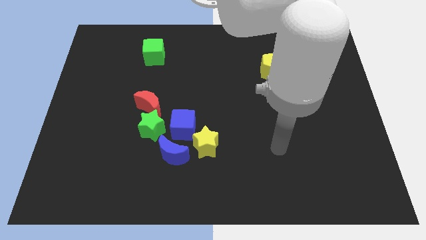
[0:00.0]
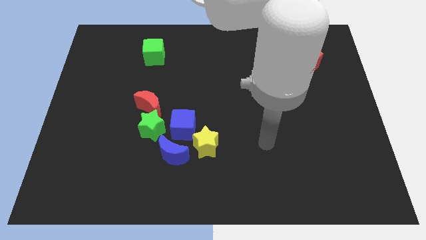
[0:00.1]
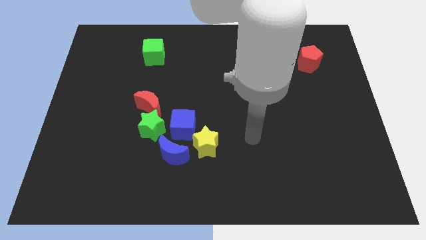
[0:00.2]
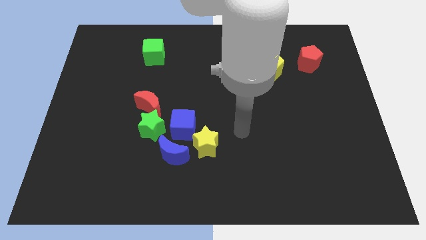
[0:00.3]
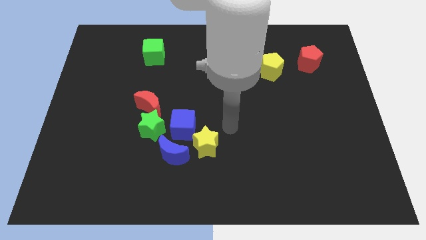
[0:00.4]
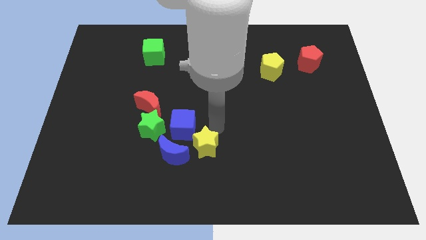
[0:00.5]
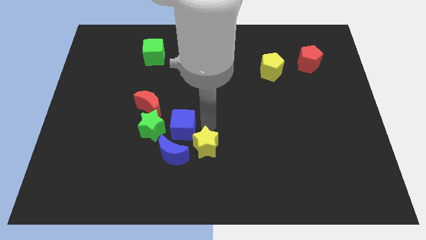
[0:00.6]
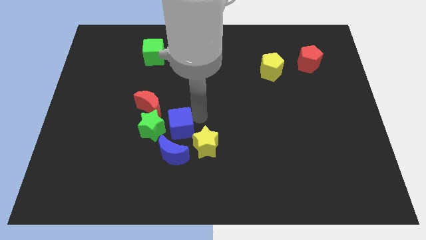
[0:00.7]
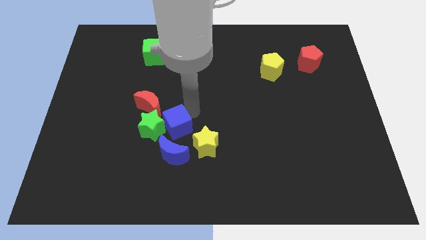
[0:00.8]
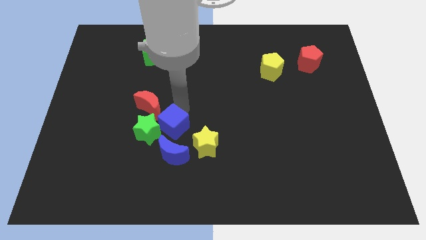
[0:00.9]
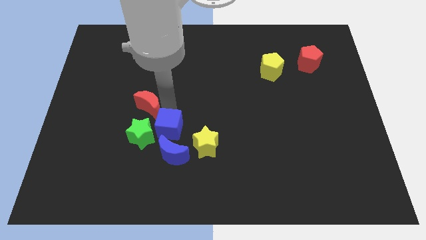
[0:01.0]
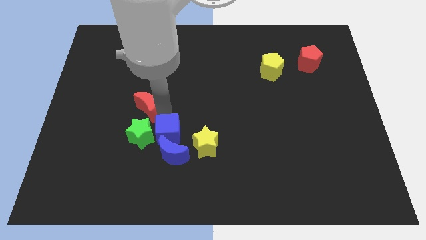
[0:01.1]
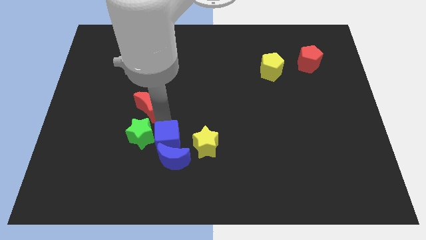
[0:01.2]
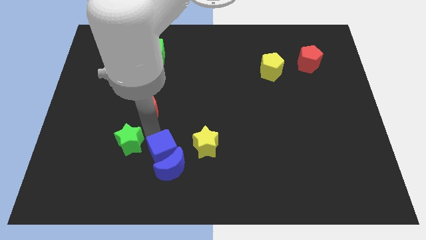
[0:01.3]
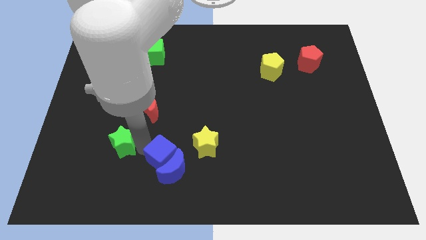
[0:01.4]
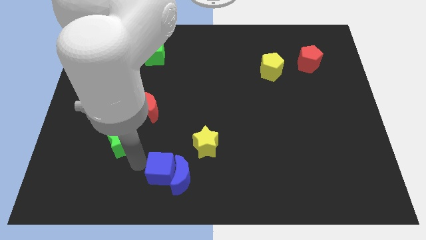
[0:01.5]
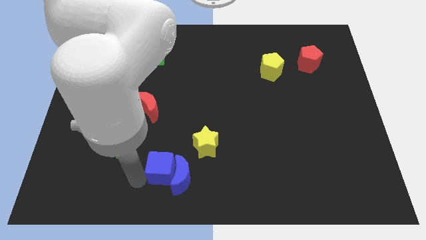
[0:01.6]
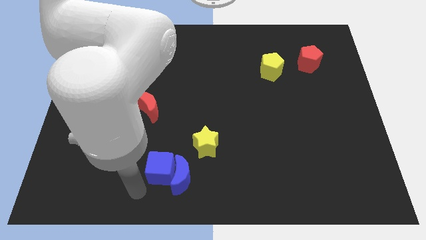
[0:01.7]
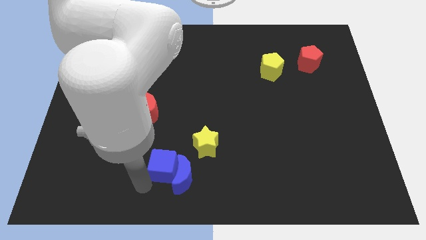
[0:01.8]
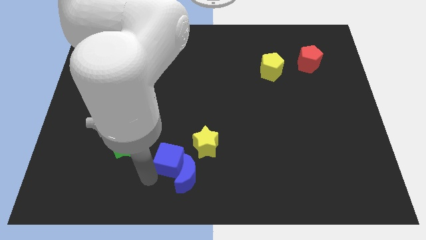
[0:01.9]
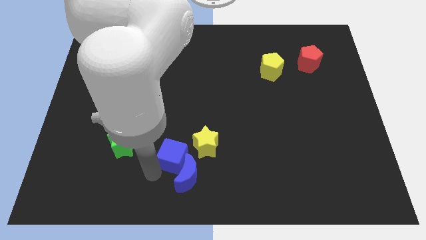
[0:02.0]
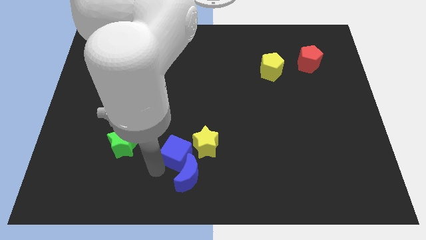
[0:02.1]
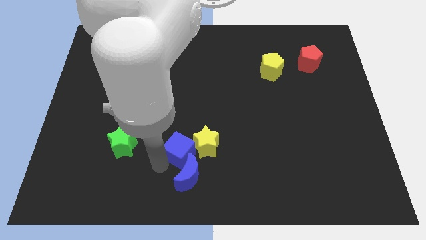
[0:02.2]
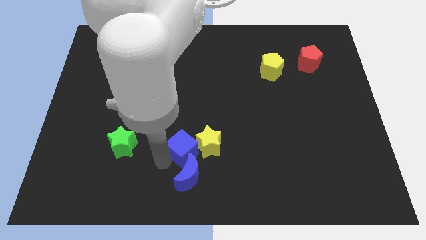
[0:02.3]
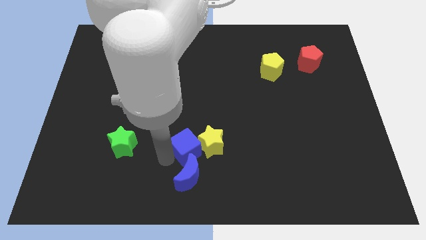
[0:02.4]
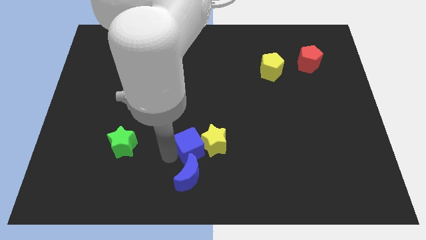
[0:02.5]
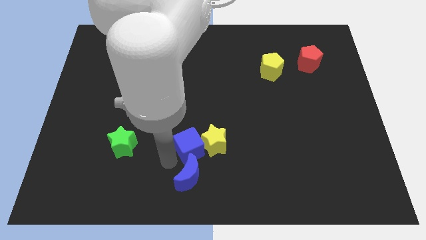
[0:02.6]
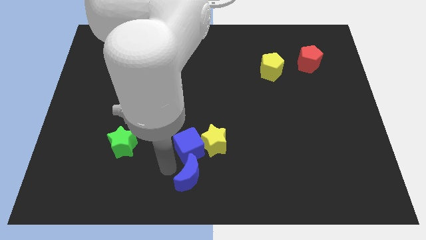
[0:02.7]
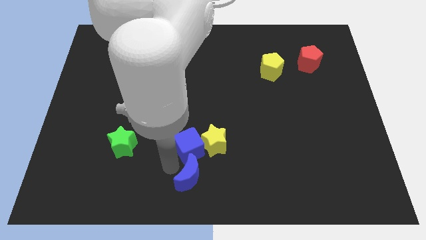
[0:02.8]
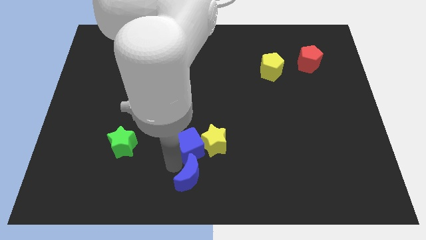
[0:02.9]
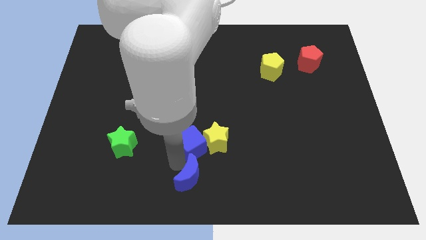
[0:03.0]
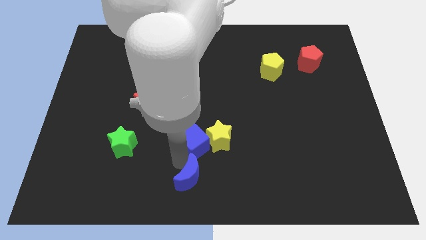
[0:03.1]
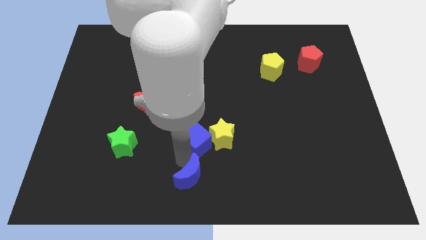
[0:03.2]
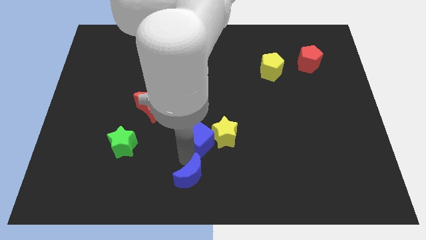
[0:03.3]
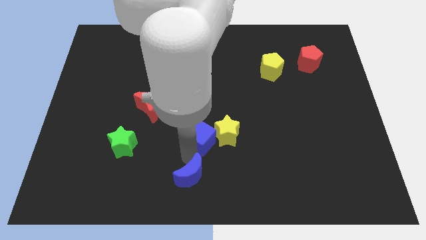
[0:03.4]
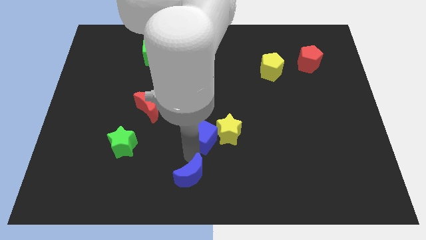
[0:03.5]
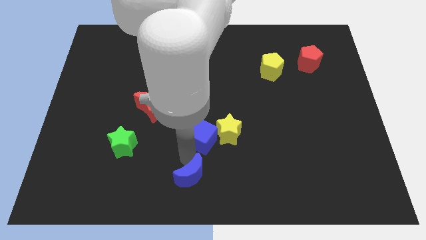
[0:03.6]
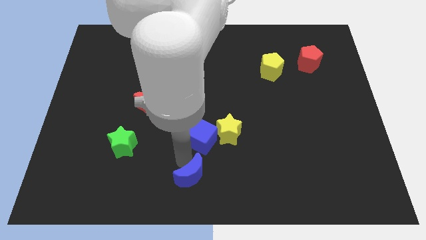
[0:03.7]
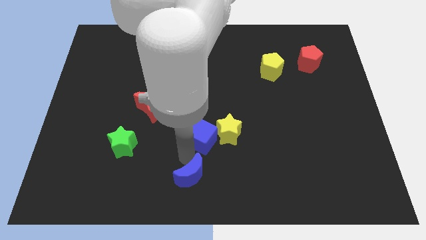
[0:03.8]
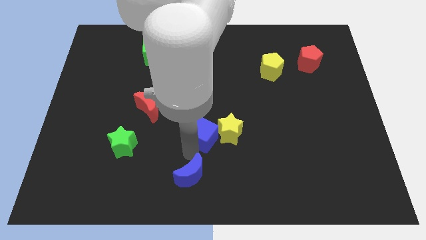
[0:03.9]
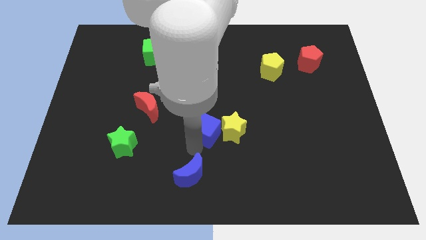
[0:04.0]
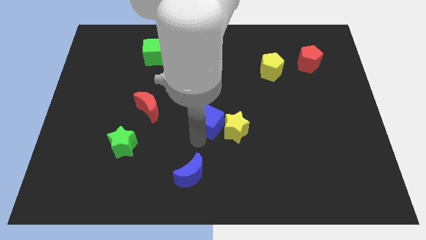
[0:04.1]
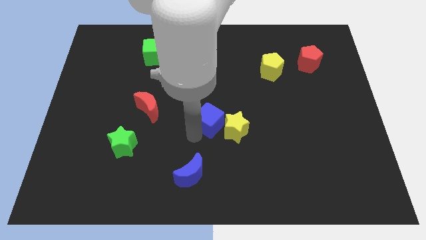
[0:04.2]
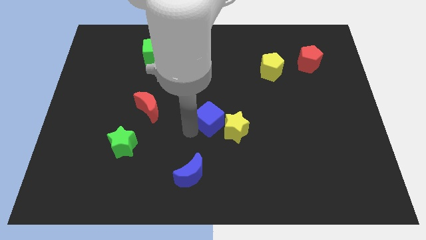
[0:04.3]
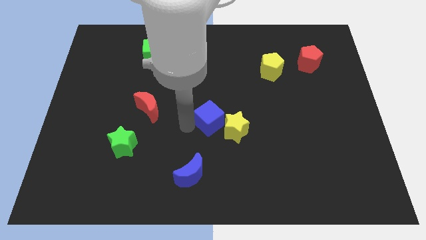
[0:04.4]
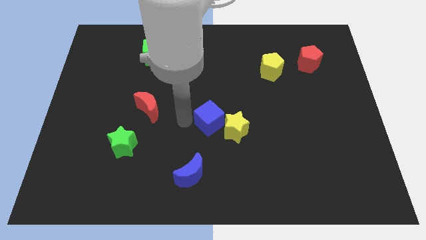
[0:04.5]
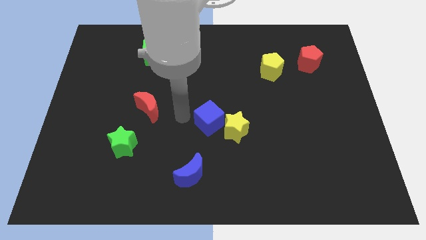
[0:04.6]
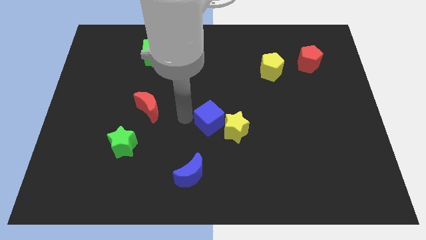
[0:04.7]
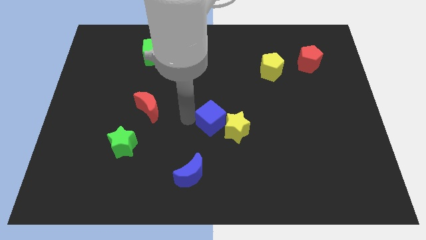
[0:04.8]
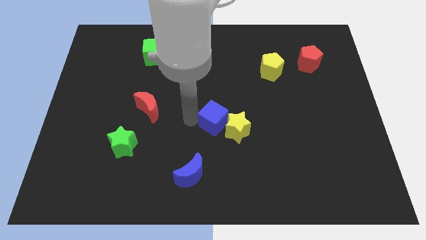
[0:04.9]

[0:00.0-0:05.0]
slide the blue cube right somewhat

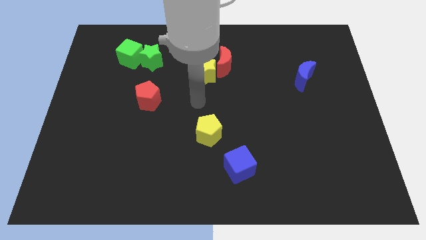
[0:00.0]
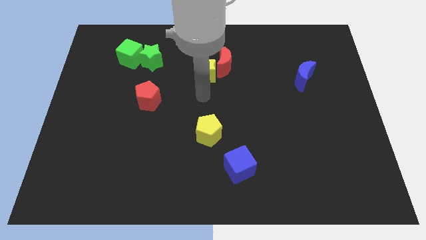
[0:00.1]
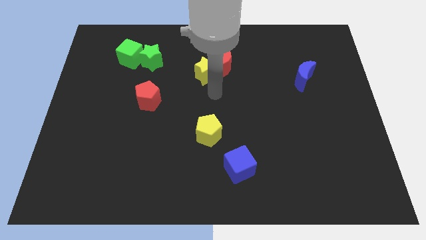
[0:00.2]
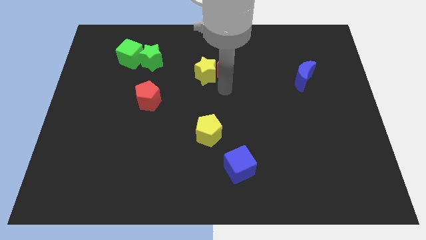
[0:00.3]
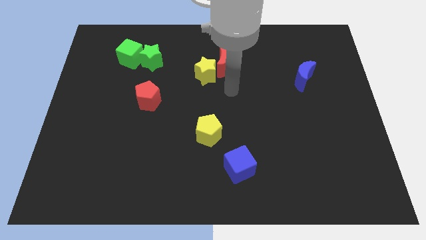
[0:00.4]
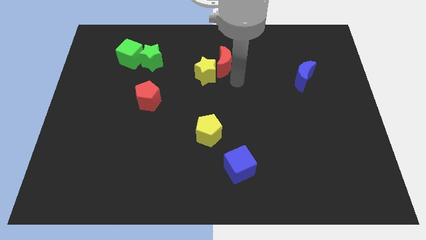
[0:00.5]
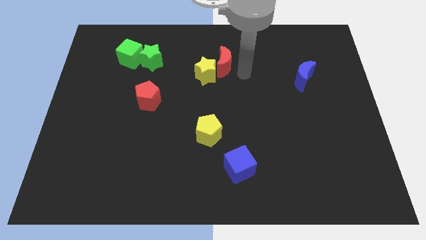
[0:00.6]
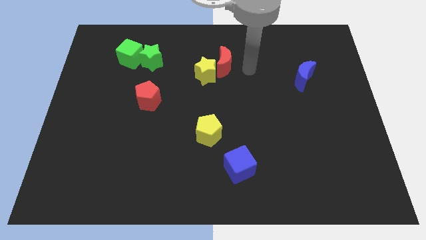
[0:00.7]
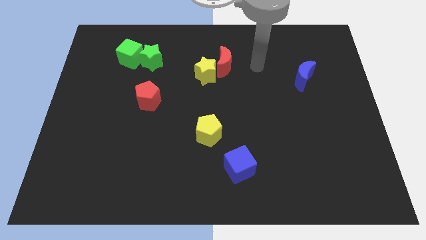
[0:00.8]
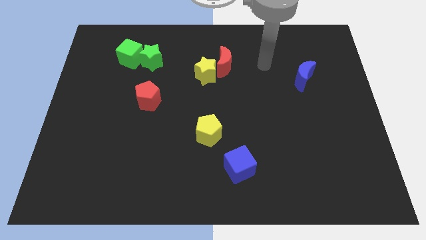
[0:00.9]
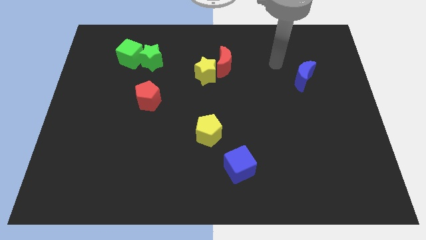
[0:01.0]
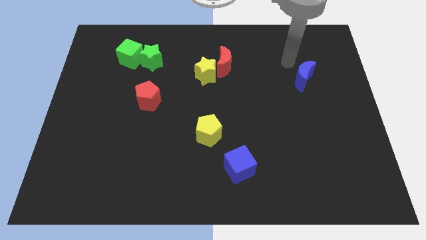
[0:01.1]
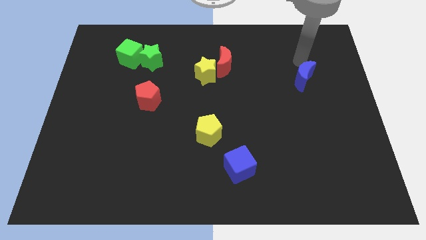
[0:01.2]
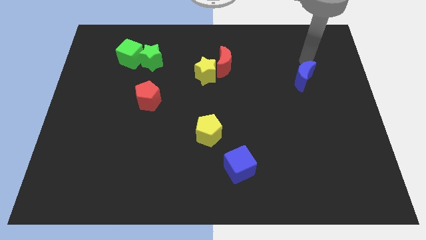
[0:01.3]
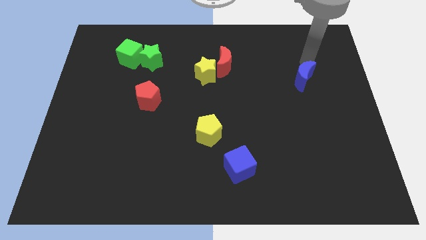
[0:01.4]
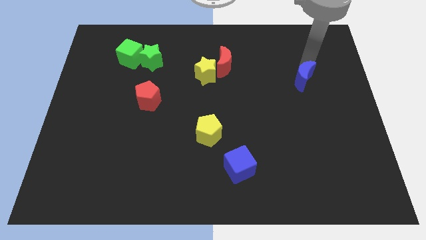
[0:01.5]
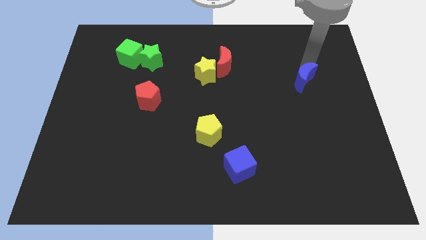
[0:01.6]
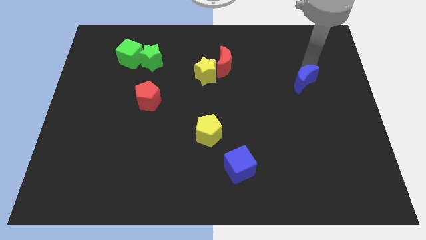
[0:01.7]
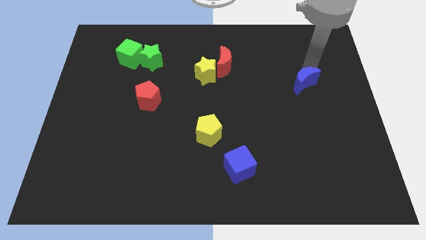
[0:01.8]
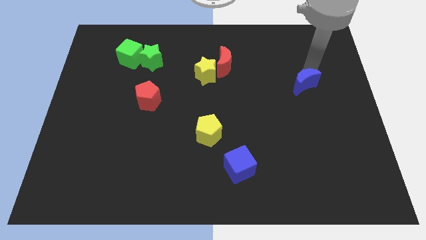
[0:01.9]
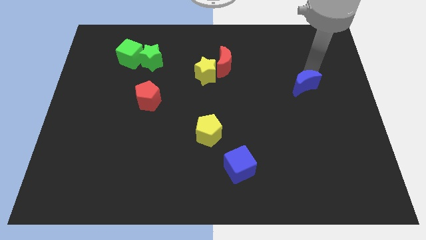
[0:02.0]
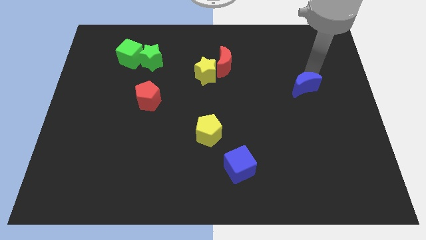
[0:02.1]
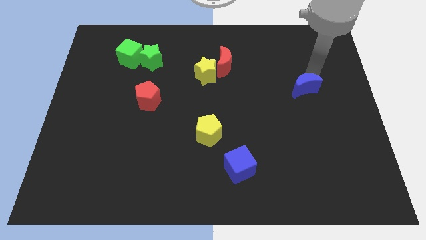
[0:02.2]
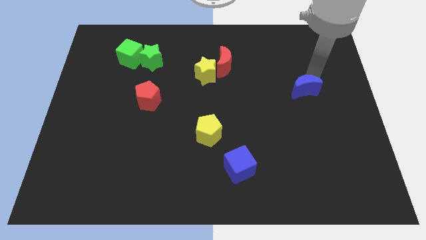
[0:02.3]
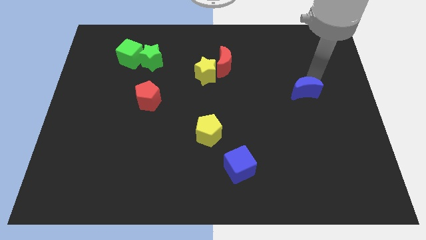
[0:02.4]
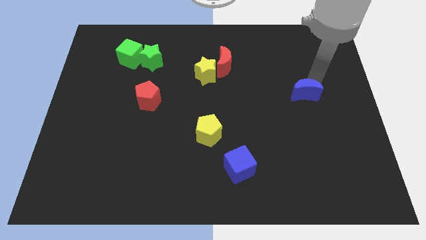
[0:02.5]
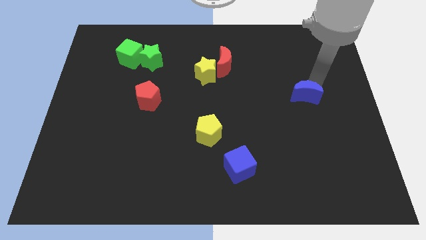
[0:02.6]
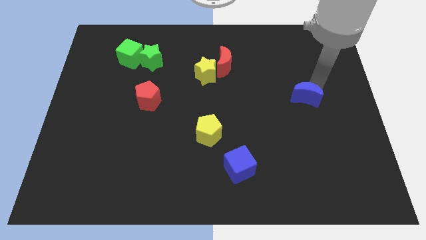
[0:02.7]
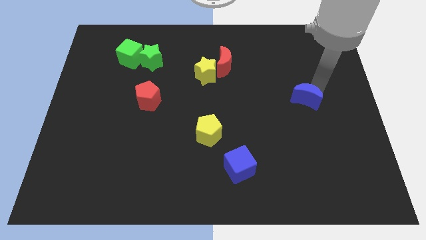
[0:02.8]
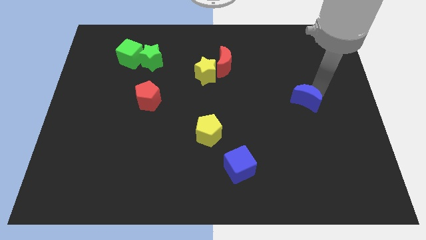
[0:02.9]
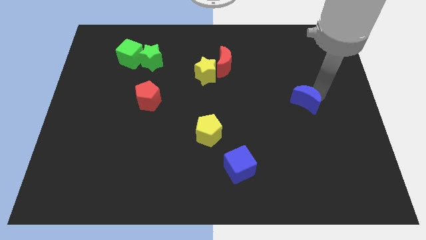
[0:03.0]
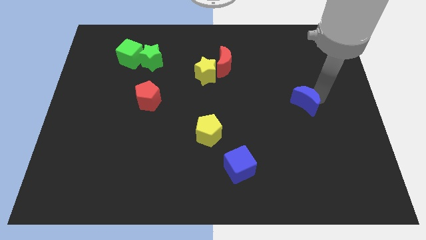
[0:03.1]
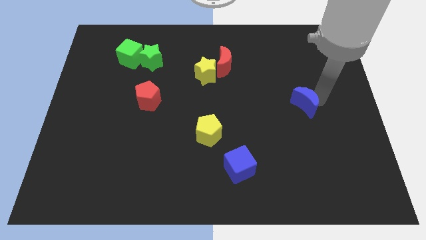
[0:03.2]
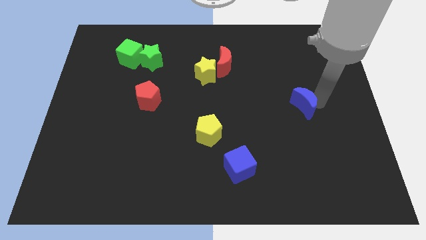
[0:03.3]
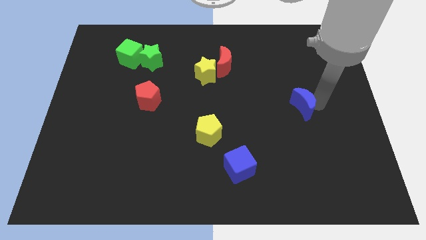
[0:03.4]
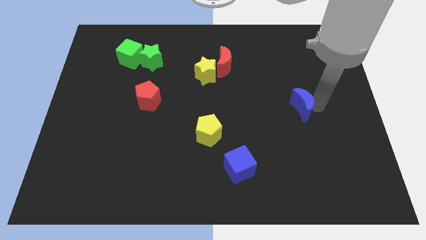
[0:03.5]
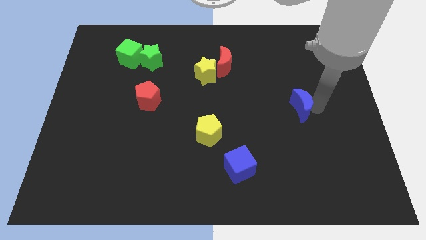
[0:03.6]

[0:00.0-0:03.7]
slightly slide the blue moon down and then to the left
